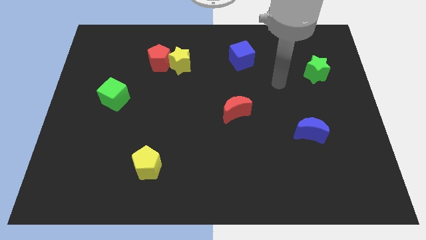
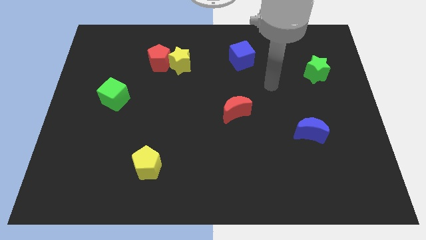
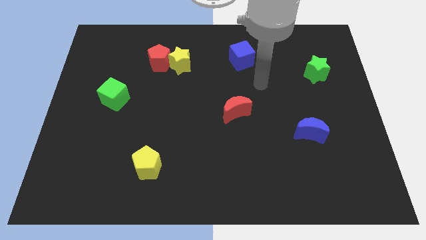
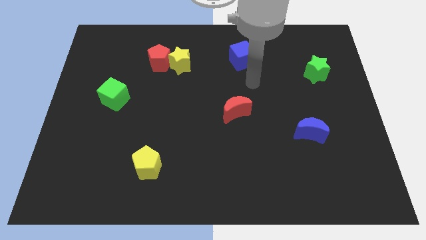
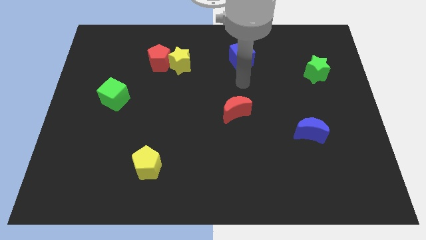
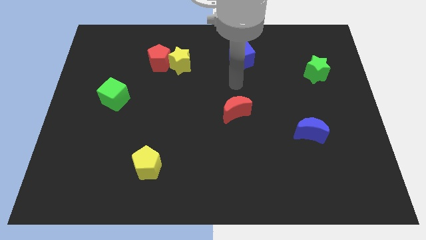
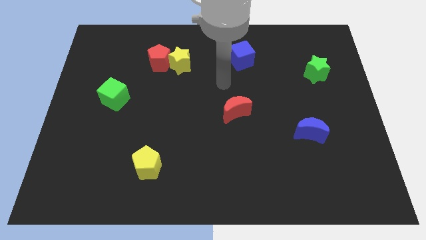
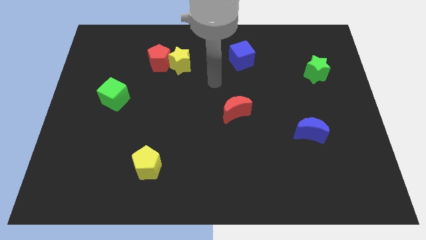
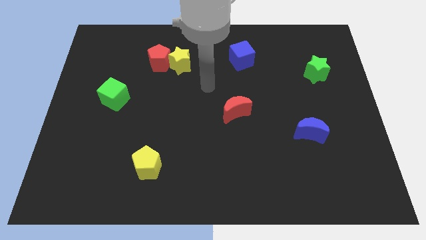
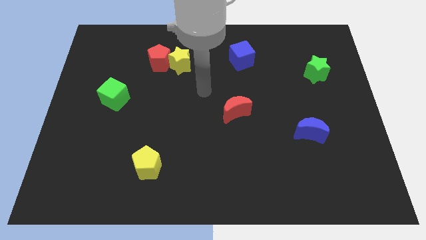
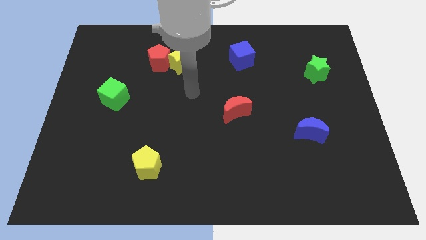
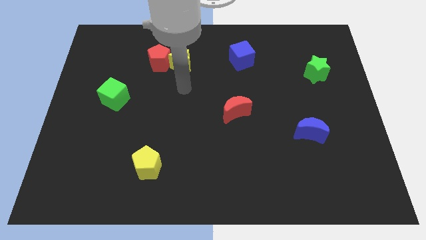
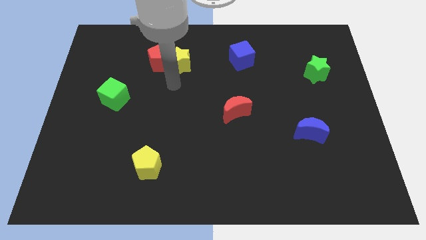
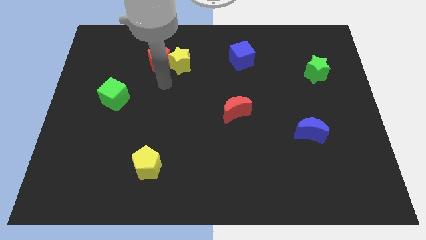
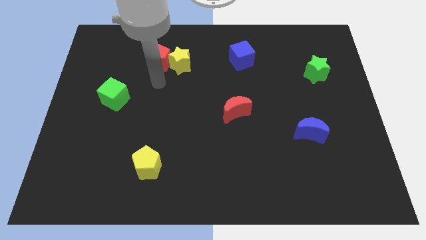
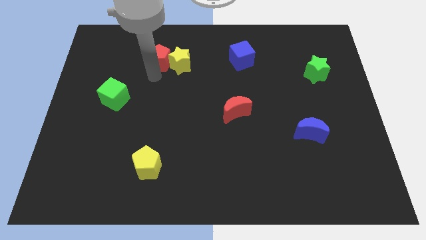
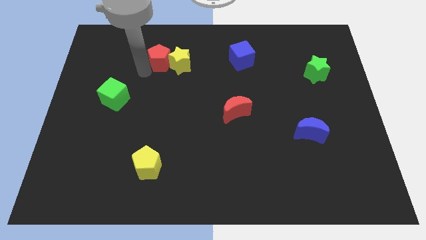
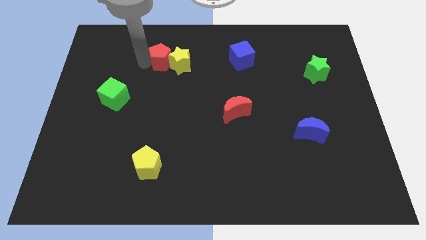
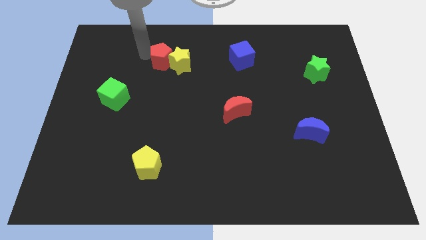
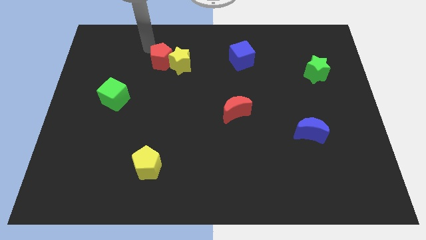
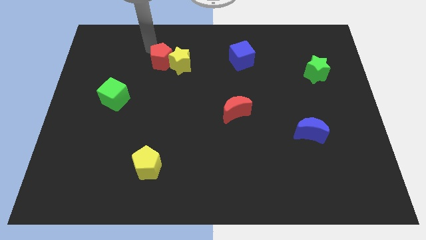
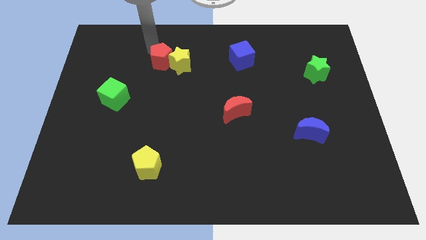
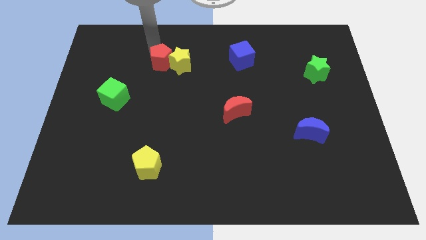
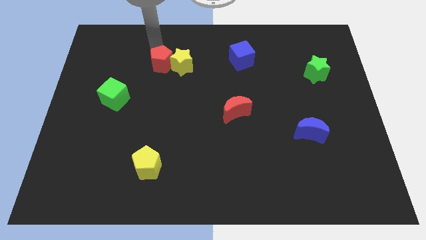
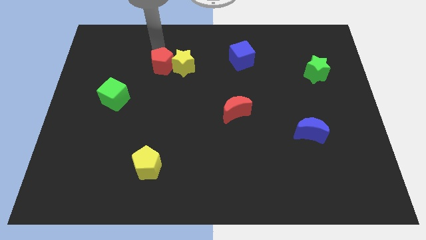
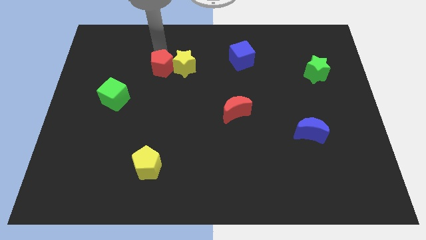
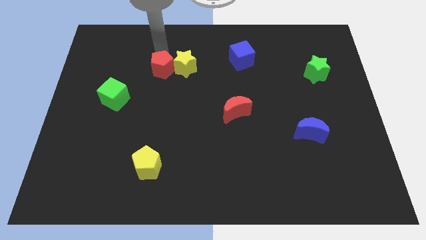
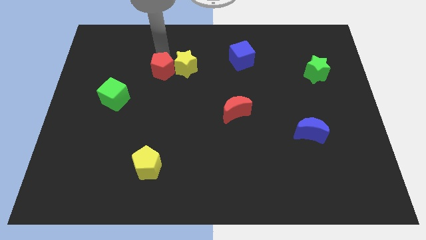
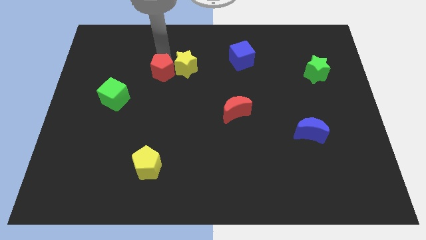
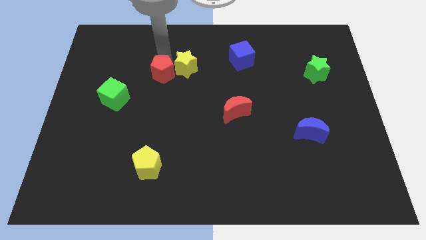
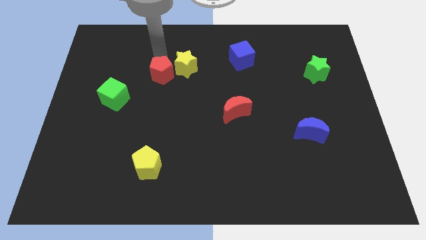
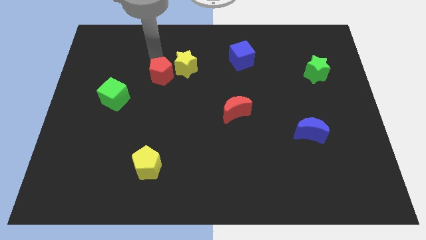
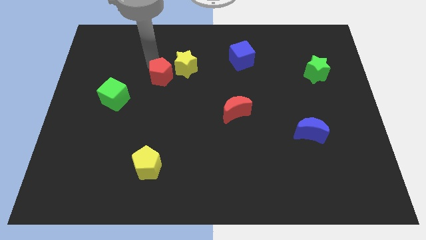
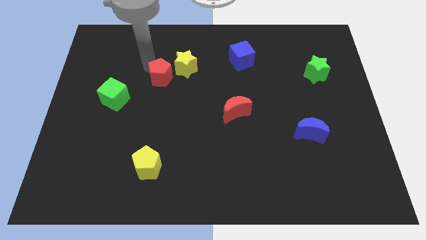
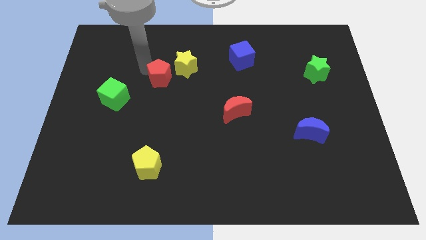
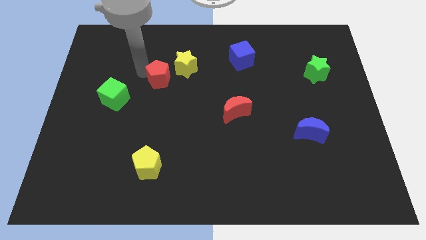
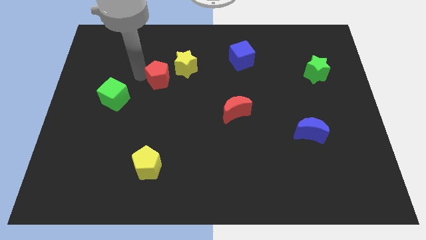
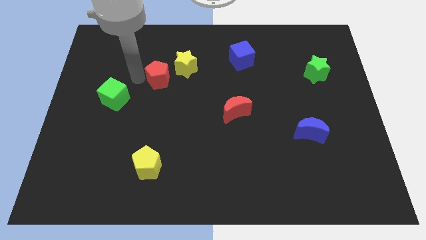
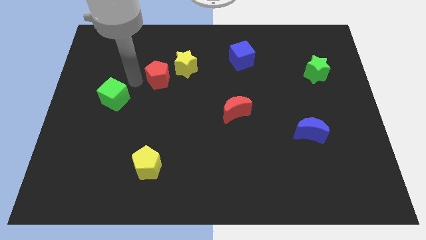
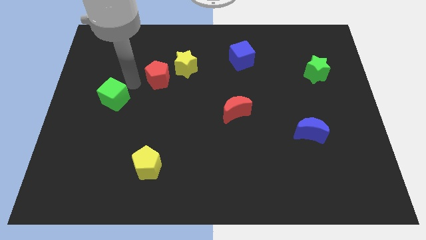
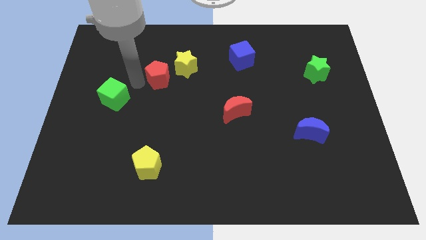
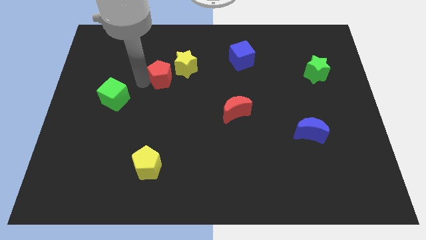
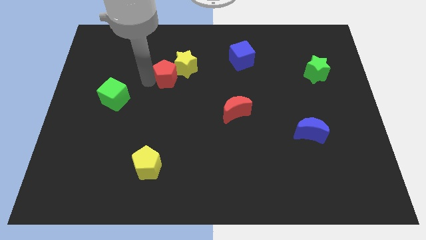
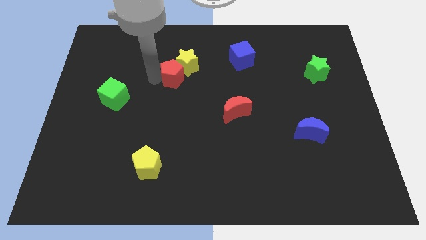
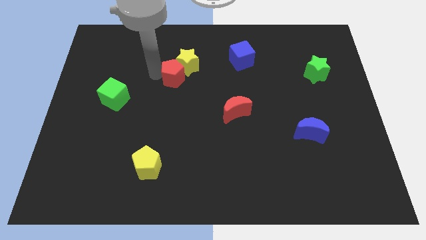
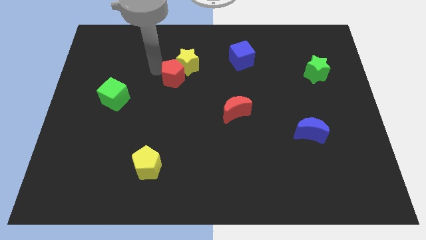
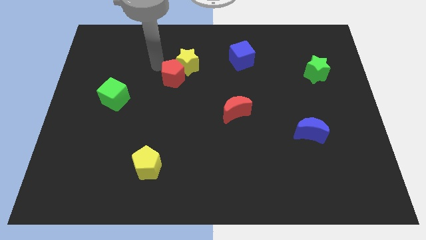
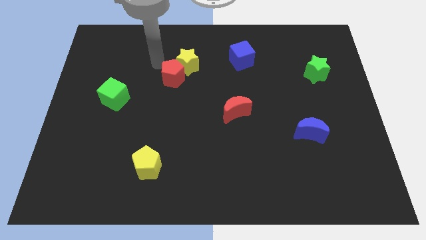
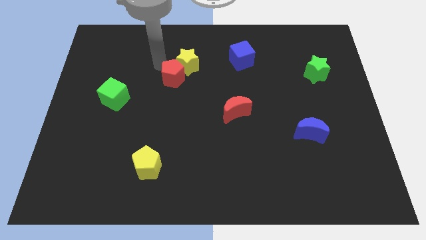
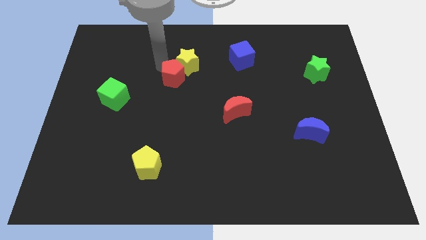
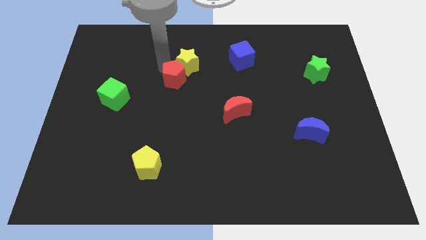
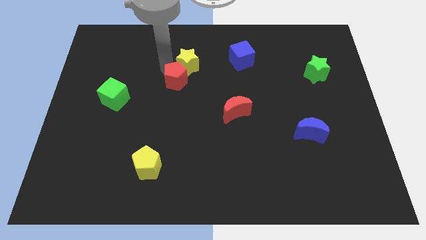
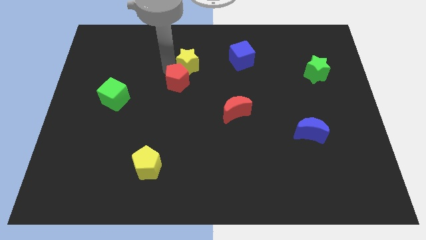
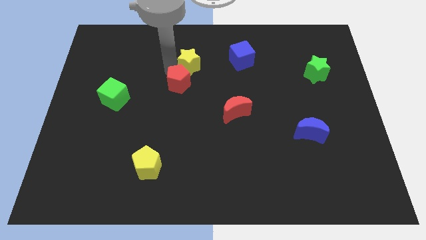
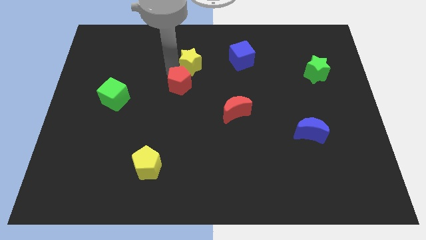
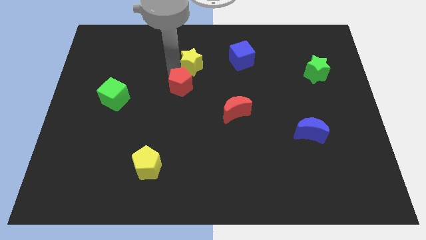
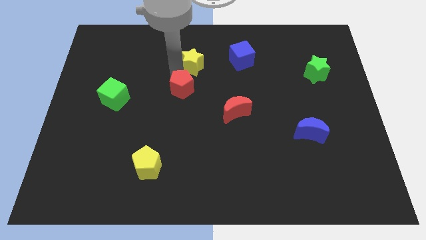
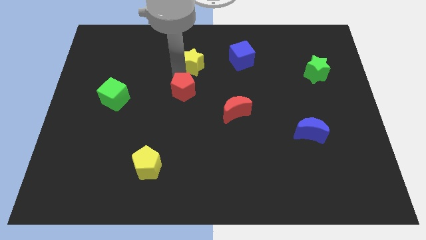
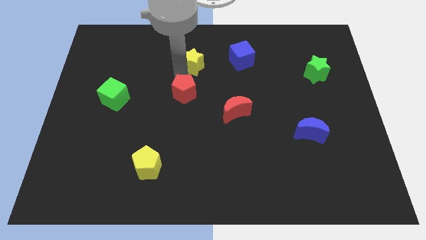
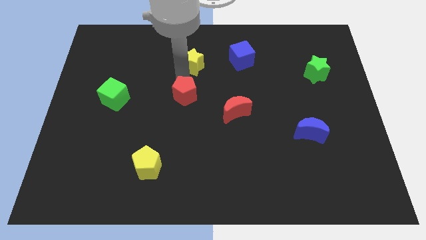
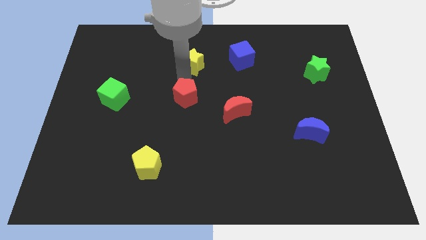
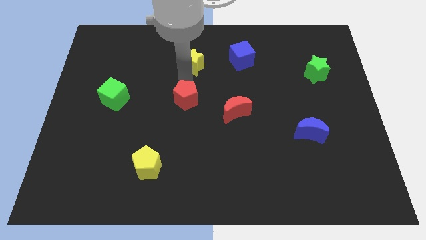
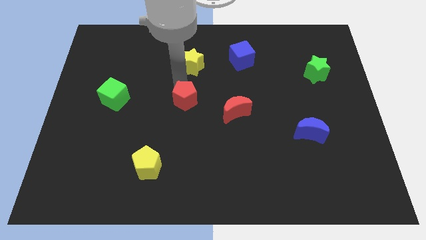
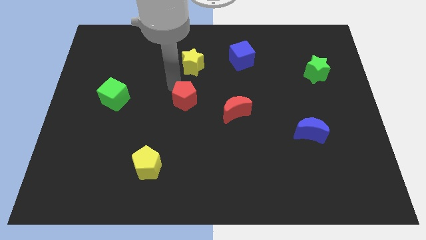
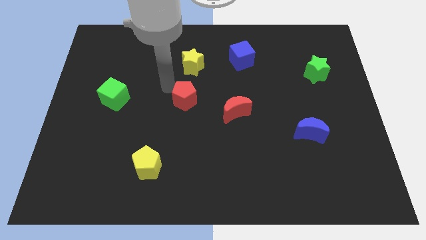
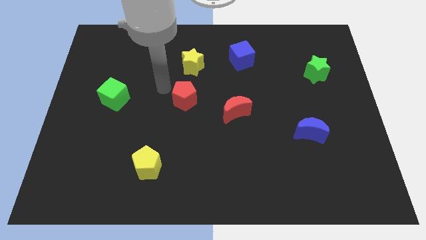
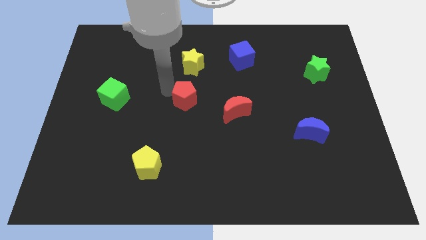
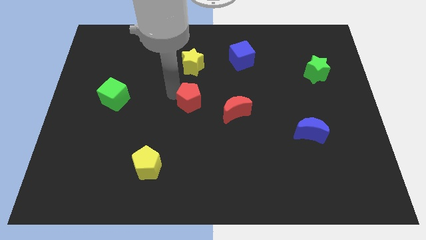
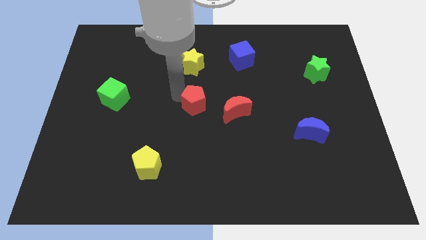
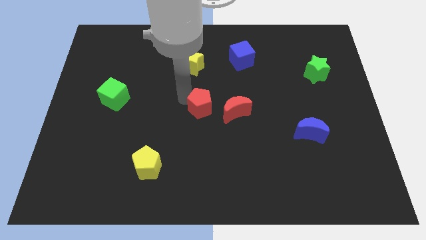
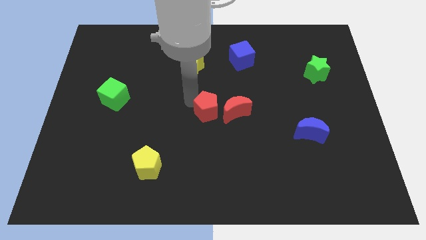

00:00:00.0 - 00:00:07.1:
push the red pentagon downwards and to the right

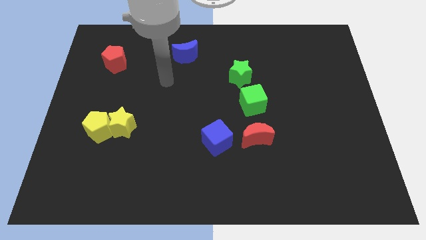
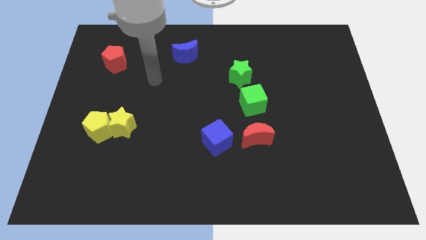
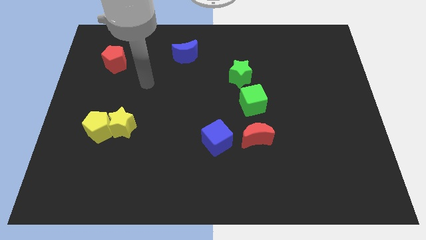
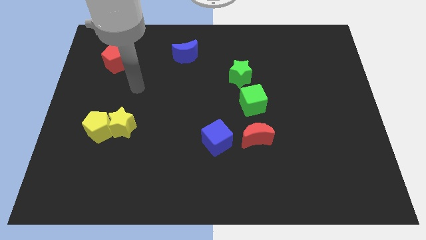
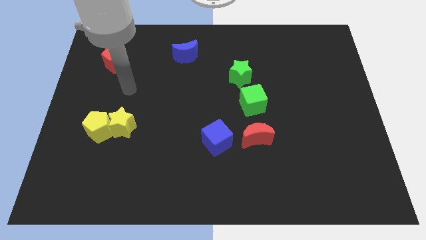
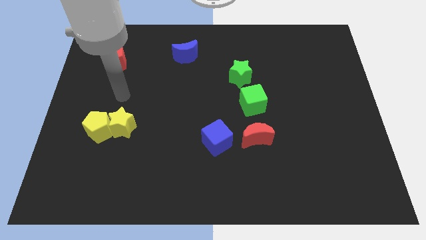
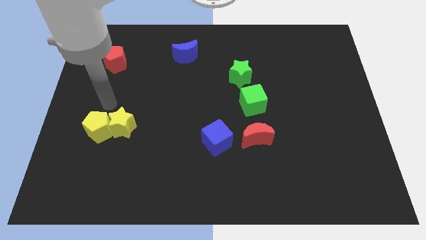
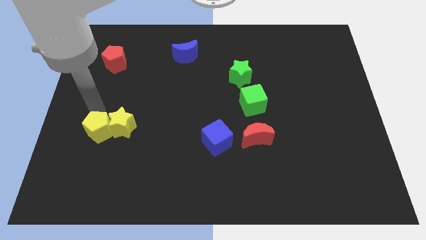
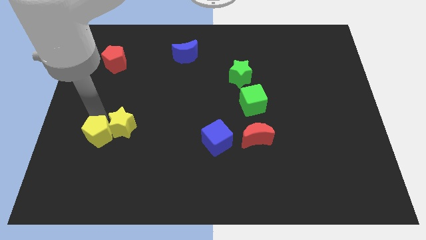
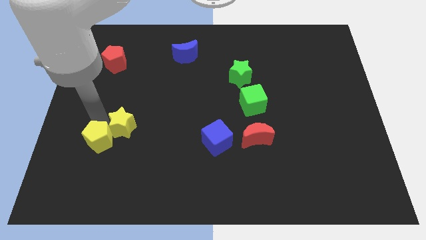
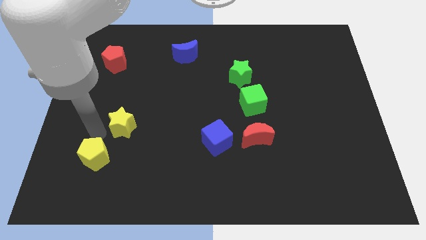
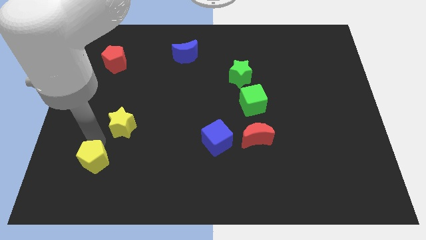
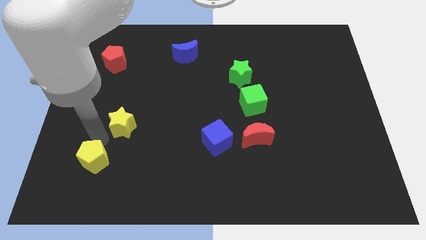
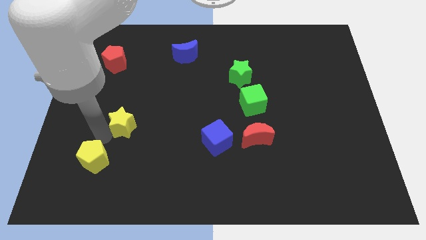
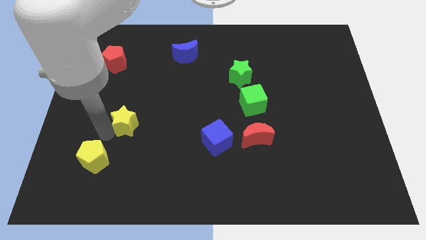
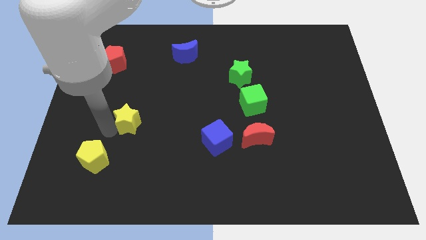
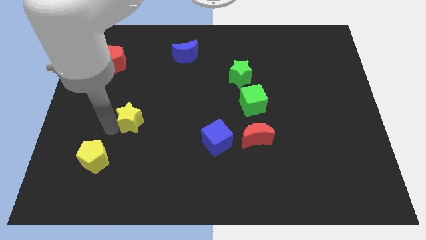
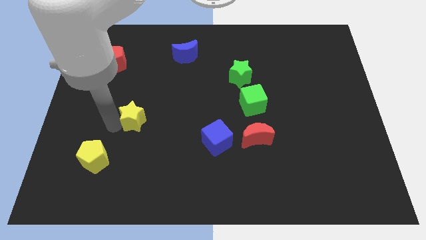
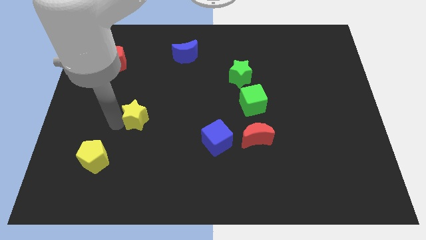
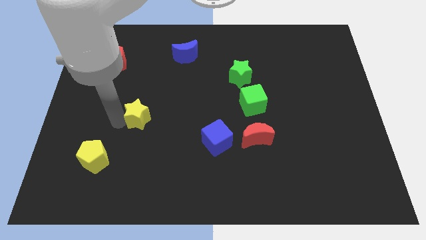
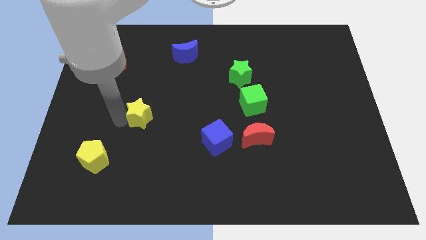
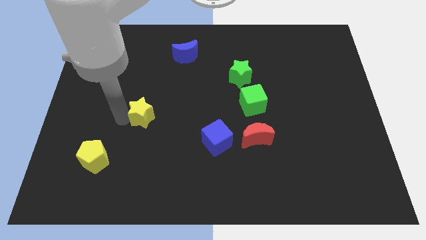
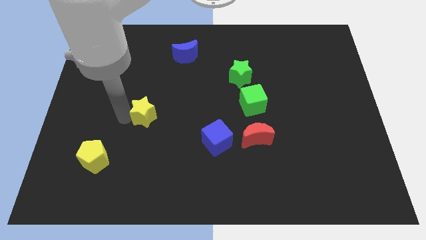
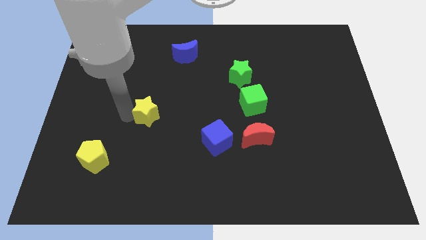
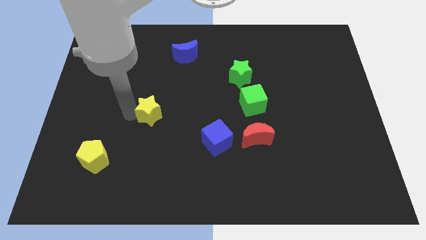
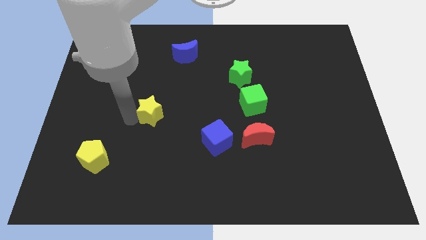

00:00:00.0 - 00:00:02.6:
move the yellow star slightly upwards and then to the right
